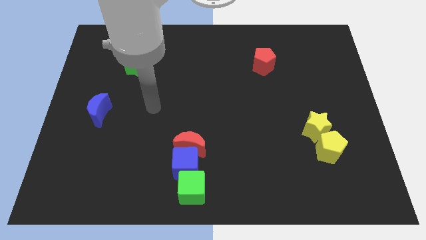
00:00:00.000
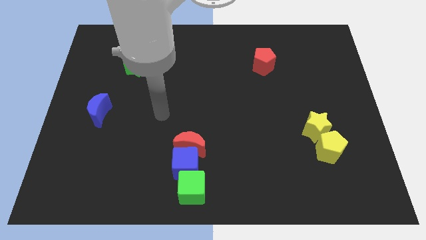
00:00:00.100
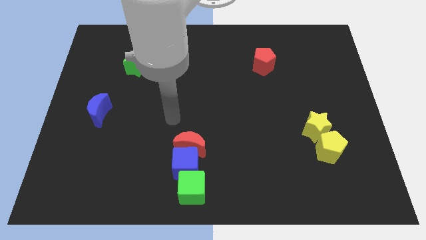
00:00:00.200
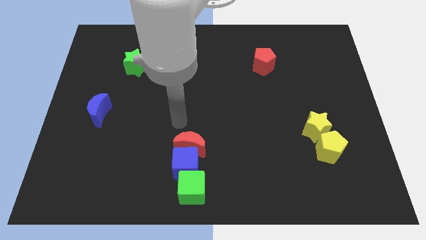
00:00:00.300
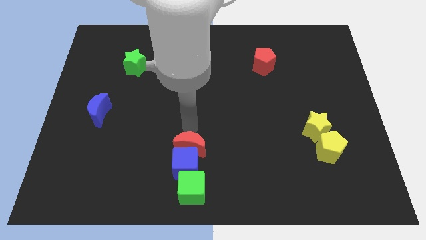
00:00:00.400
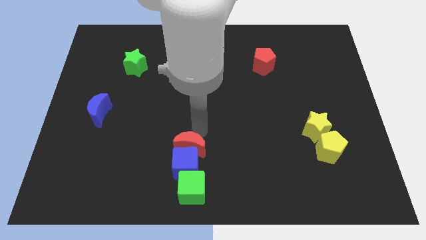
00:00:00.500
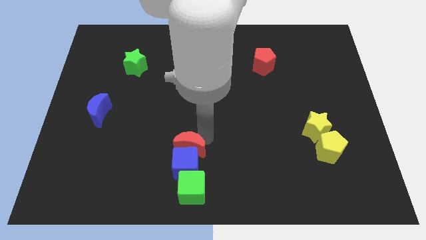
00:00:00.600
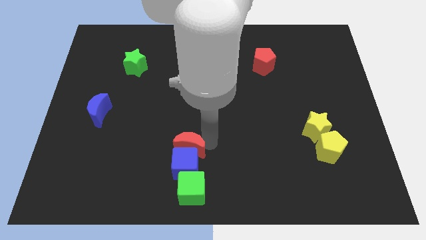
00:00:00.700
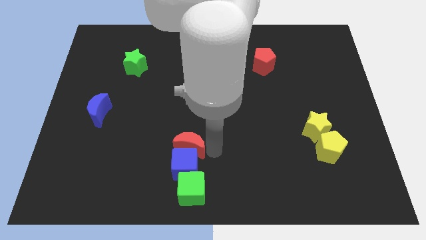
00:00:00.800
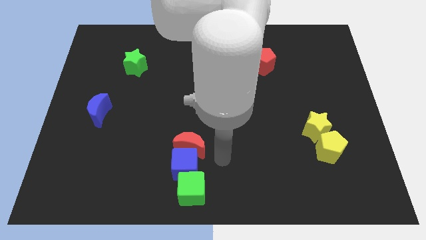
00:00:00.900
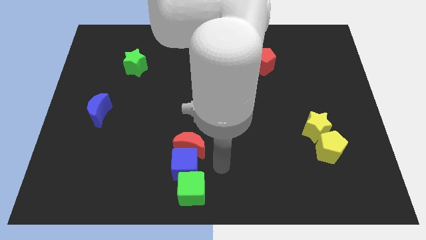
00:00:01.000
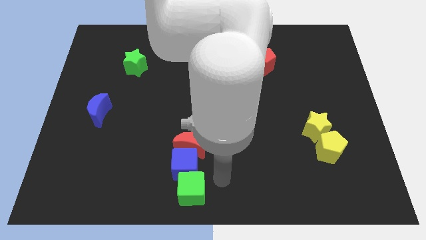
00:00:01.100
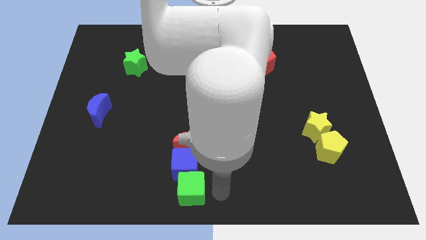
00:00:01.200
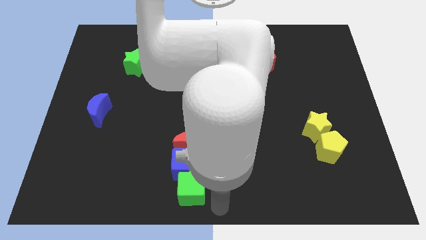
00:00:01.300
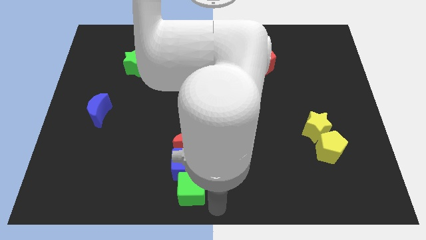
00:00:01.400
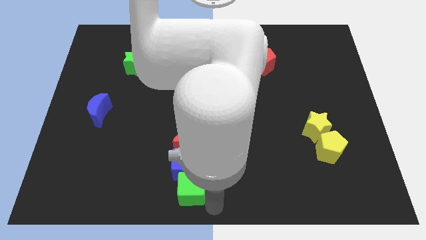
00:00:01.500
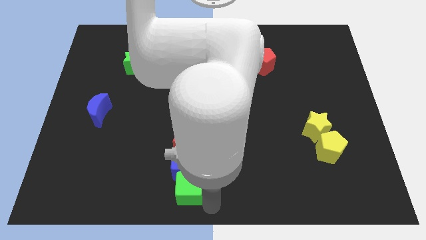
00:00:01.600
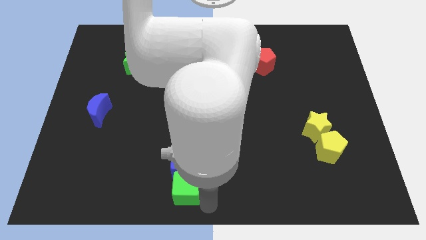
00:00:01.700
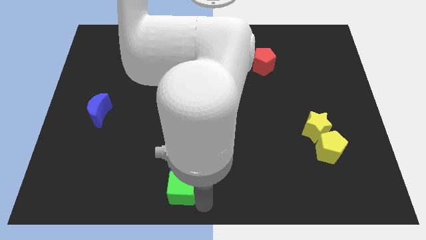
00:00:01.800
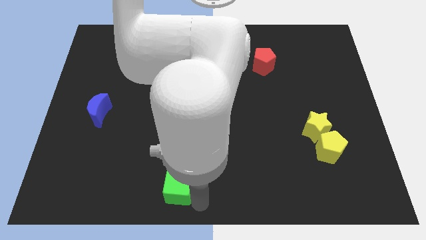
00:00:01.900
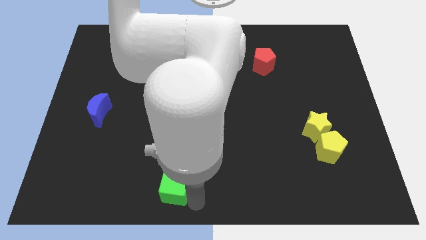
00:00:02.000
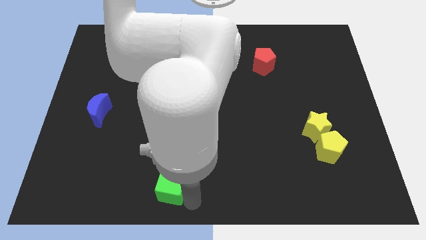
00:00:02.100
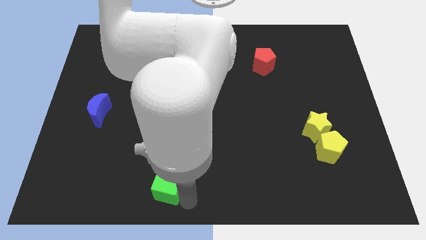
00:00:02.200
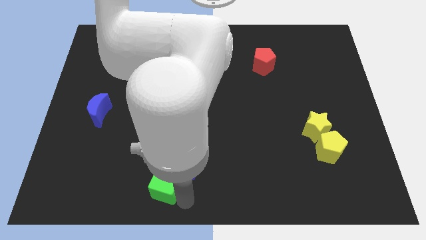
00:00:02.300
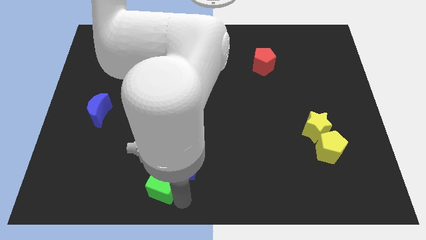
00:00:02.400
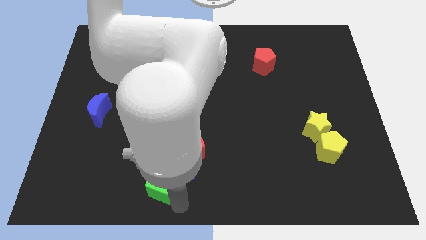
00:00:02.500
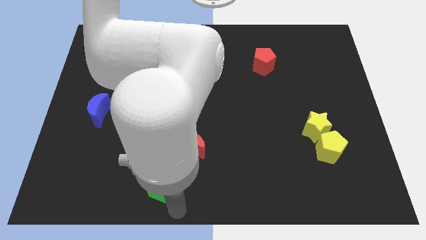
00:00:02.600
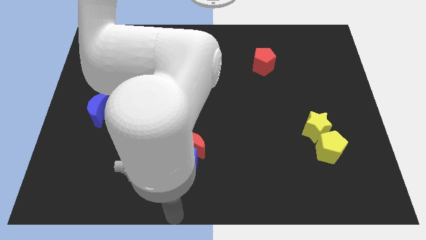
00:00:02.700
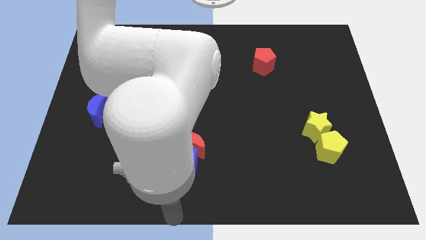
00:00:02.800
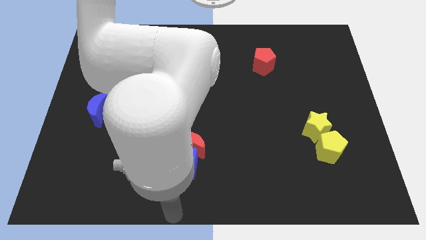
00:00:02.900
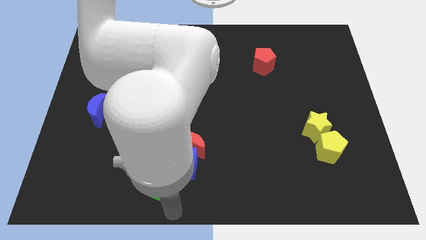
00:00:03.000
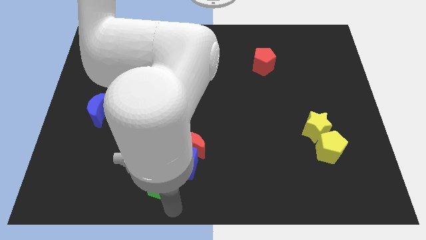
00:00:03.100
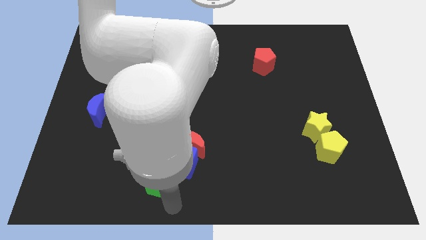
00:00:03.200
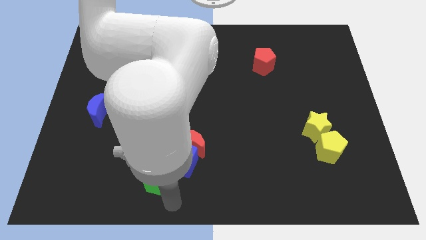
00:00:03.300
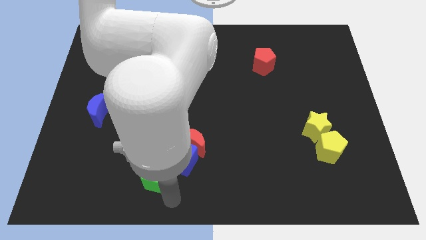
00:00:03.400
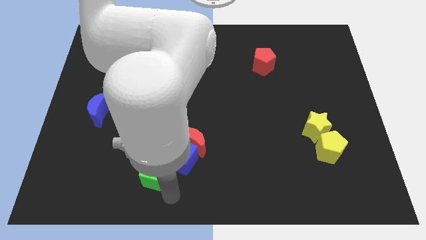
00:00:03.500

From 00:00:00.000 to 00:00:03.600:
push the green cube a little bit up and to the left diagonally

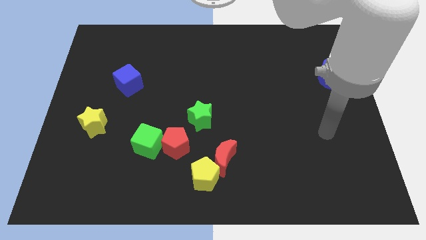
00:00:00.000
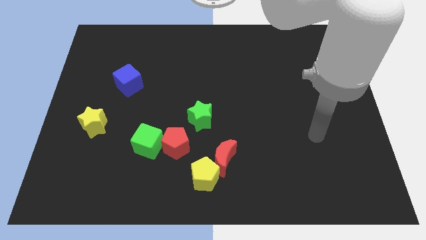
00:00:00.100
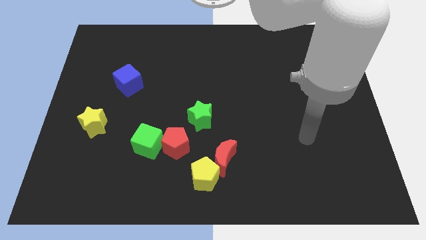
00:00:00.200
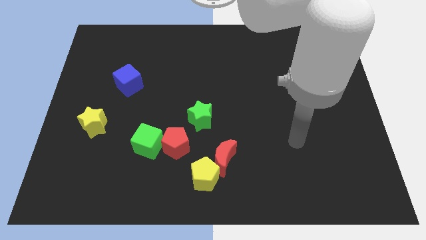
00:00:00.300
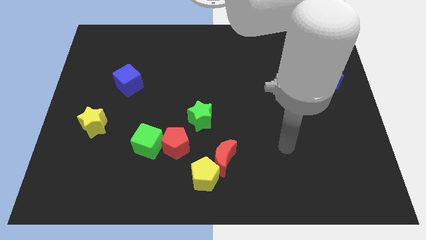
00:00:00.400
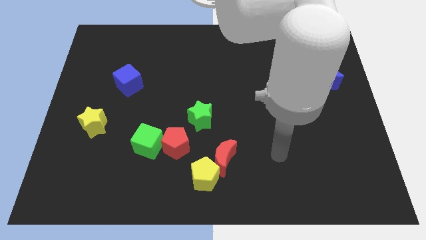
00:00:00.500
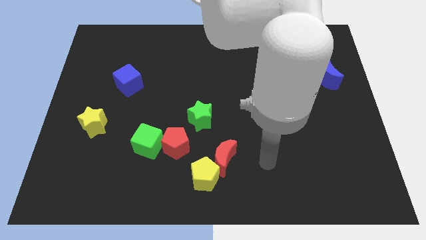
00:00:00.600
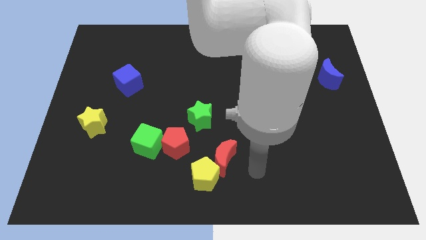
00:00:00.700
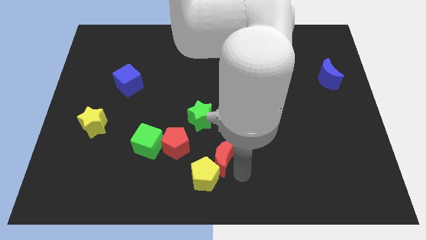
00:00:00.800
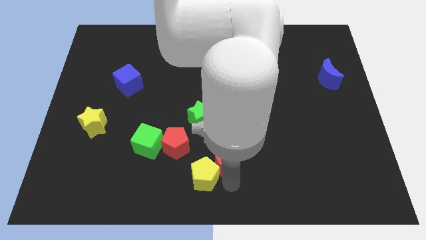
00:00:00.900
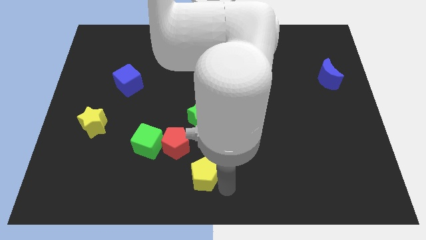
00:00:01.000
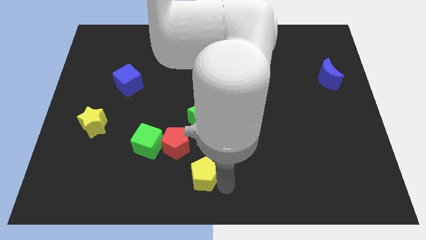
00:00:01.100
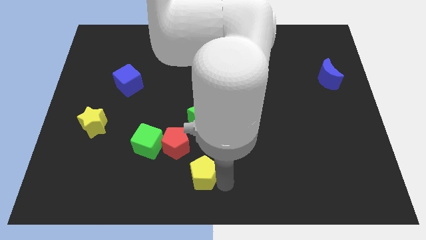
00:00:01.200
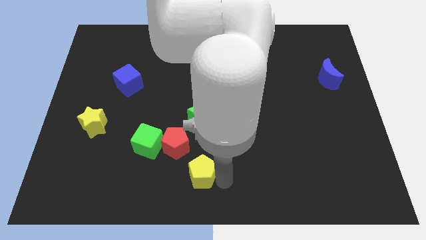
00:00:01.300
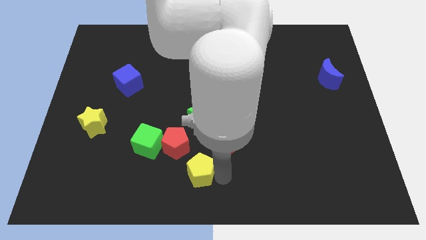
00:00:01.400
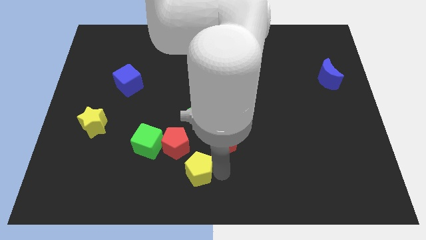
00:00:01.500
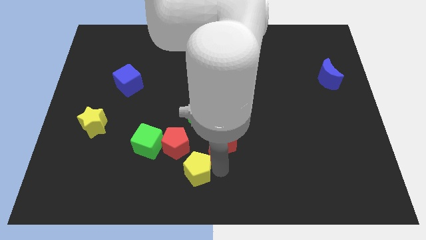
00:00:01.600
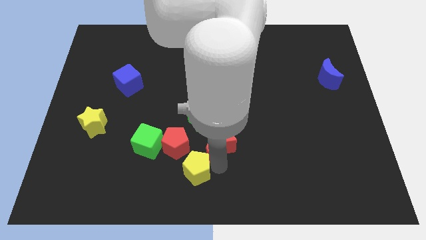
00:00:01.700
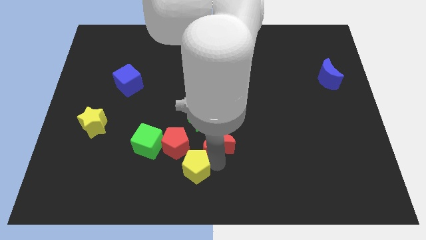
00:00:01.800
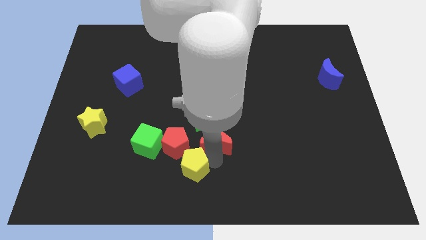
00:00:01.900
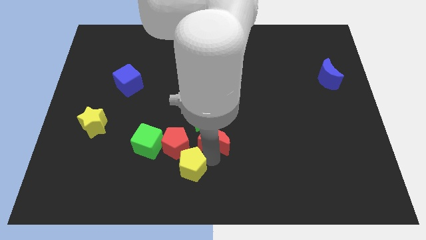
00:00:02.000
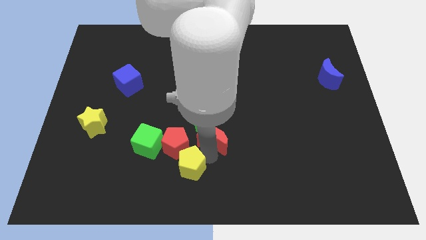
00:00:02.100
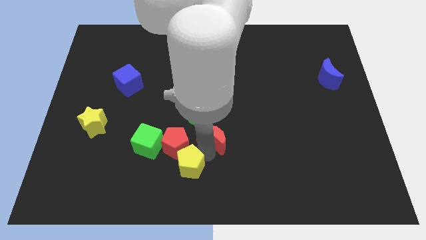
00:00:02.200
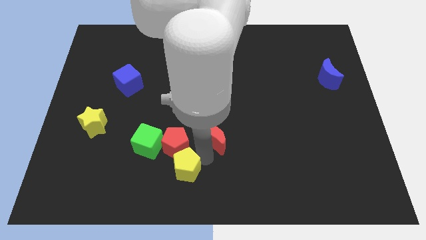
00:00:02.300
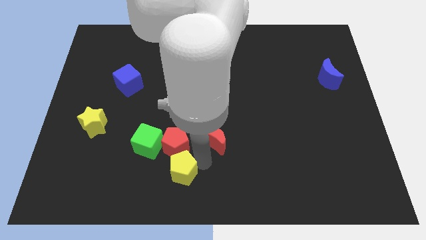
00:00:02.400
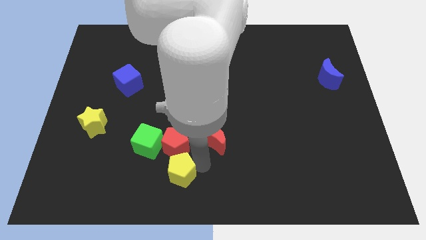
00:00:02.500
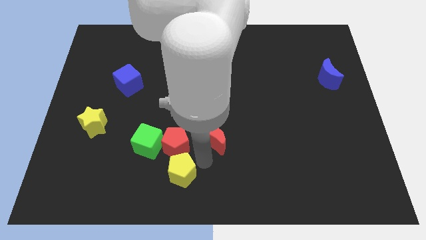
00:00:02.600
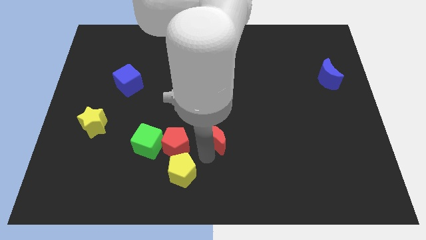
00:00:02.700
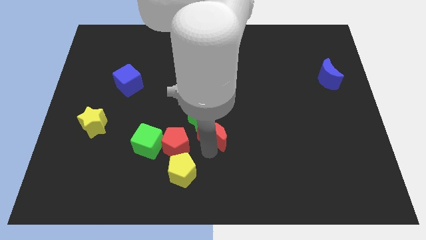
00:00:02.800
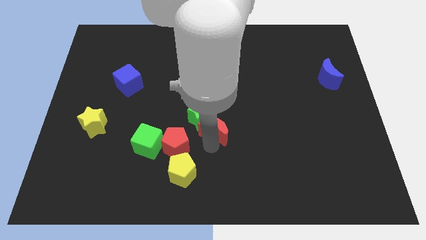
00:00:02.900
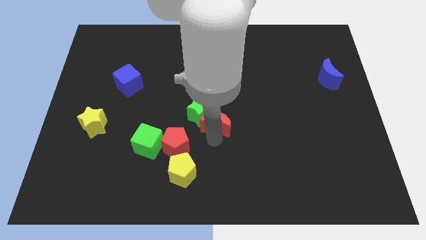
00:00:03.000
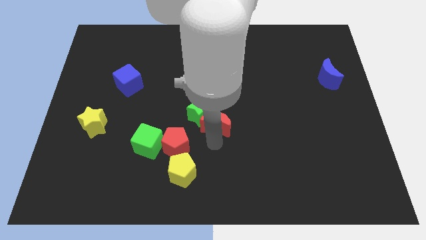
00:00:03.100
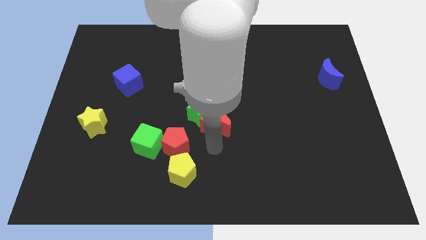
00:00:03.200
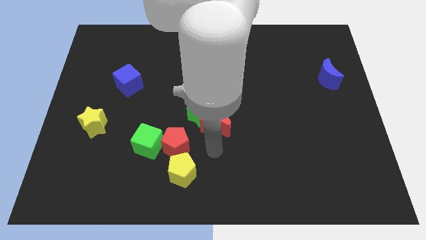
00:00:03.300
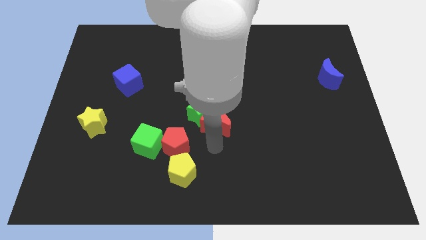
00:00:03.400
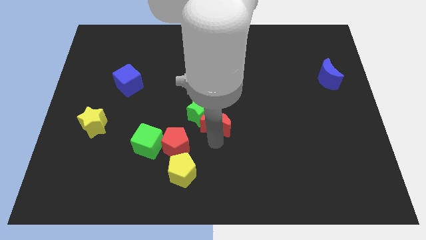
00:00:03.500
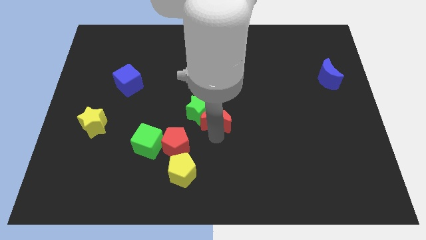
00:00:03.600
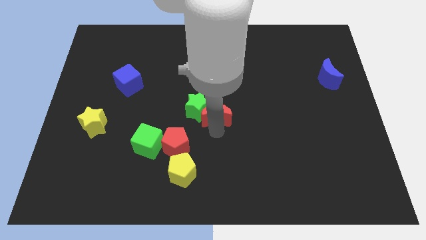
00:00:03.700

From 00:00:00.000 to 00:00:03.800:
slightly push the red moon upwards and to the left

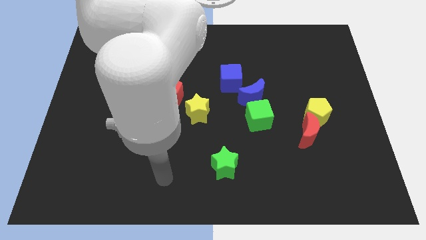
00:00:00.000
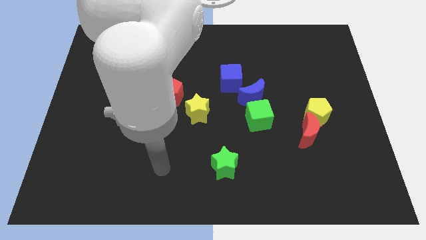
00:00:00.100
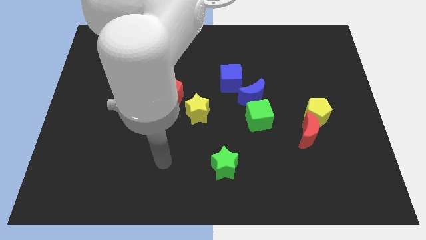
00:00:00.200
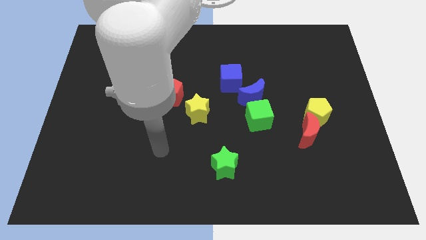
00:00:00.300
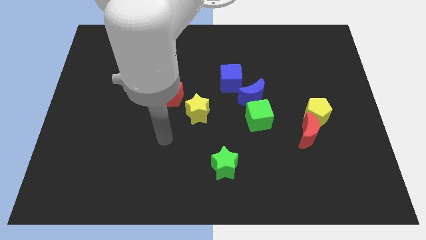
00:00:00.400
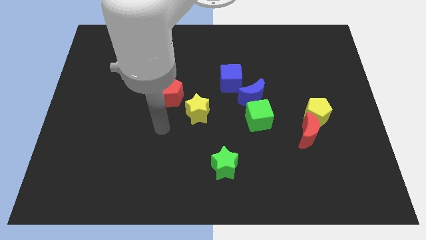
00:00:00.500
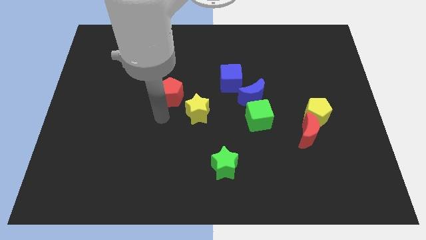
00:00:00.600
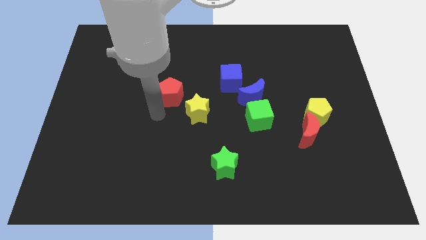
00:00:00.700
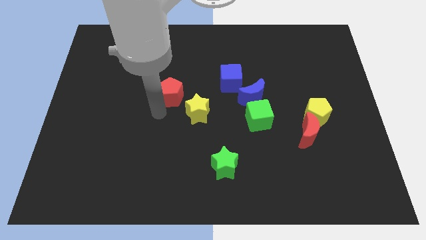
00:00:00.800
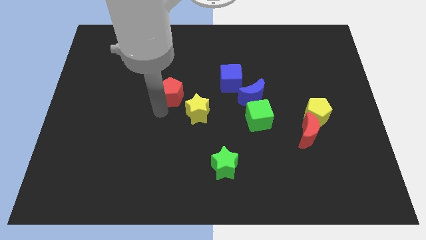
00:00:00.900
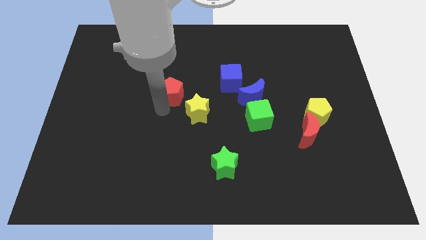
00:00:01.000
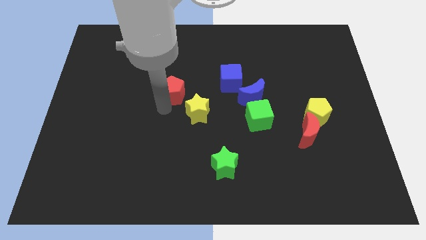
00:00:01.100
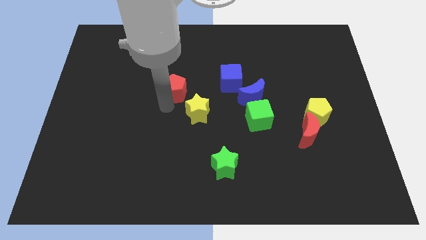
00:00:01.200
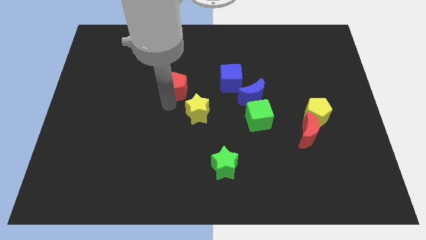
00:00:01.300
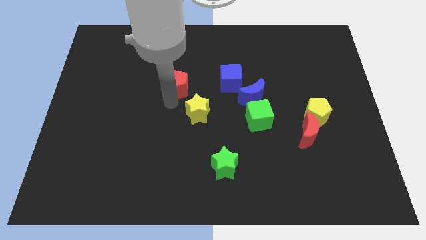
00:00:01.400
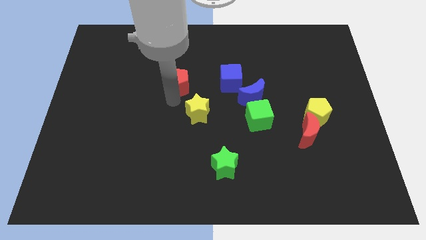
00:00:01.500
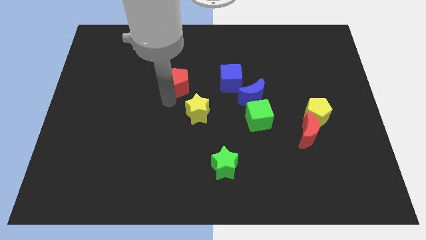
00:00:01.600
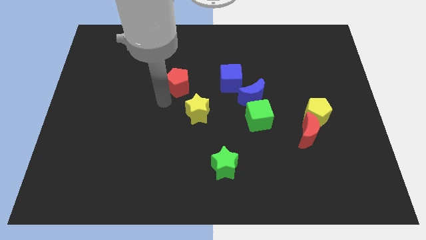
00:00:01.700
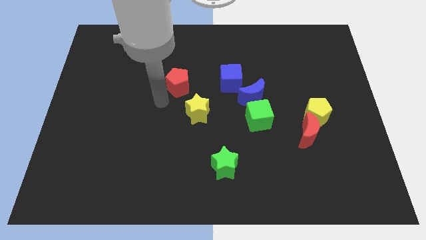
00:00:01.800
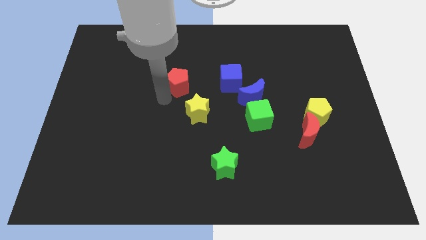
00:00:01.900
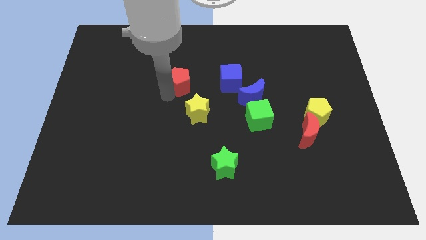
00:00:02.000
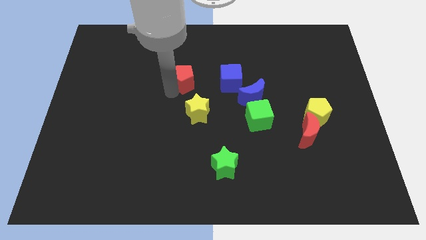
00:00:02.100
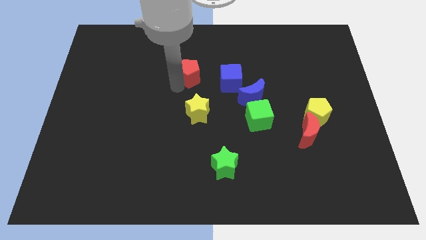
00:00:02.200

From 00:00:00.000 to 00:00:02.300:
slightly push the red pentagon up and right
